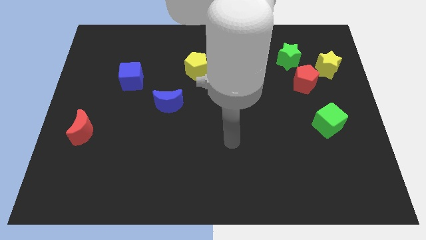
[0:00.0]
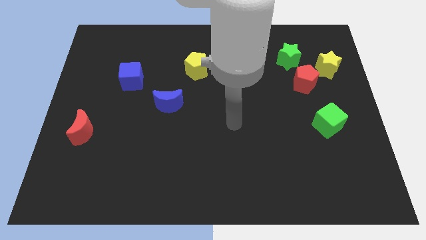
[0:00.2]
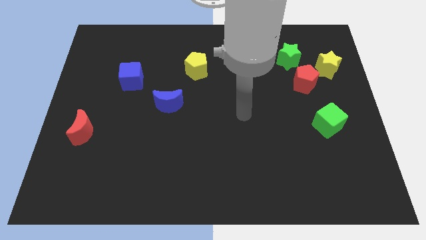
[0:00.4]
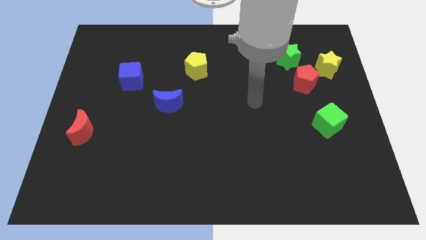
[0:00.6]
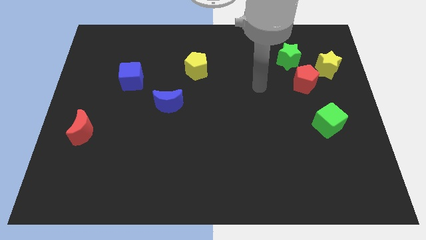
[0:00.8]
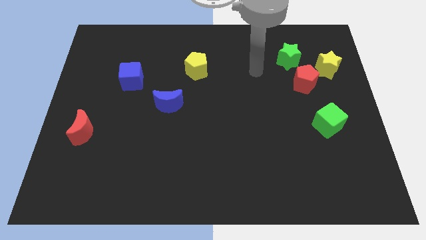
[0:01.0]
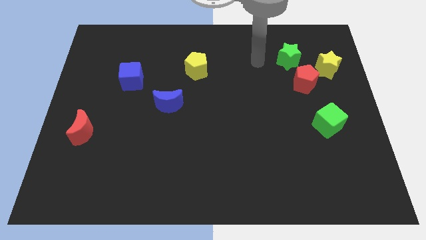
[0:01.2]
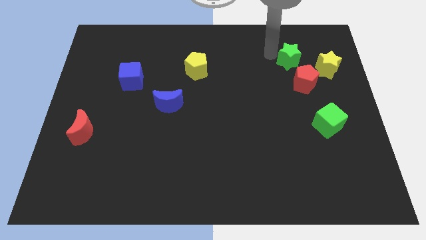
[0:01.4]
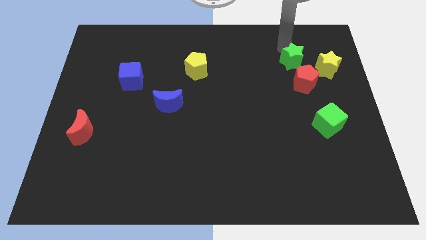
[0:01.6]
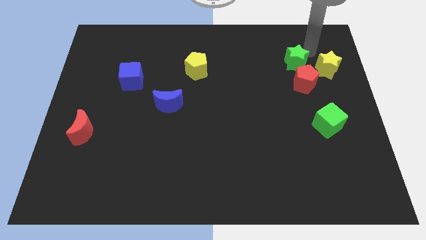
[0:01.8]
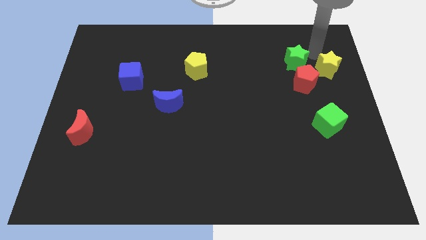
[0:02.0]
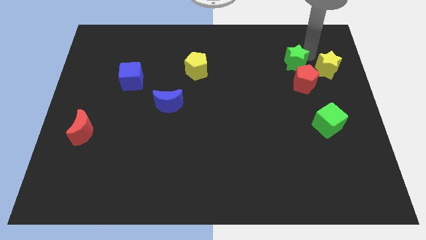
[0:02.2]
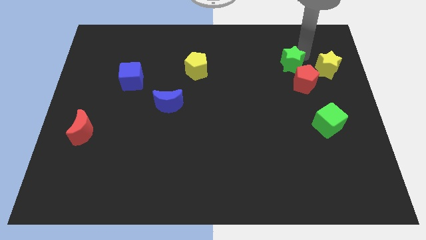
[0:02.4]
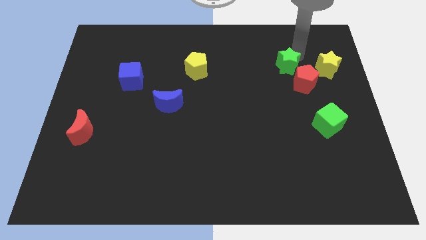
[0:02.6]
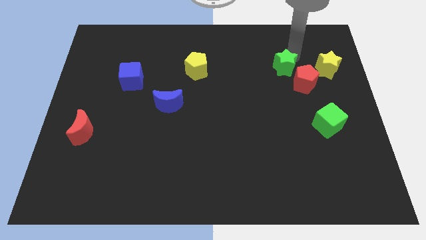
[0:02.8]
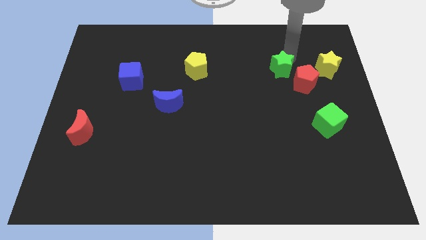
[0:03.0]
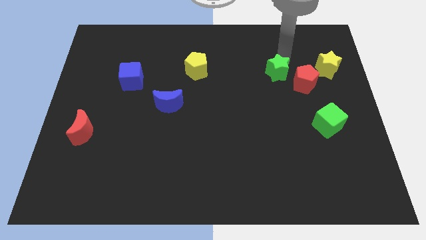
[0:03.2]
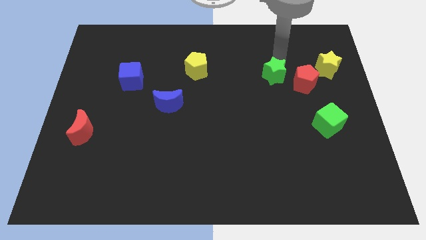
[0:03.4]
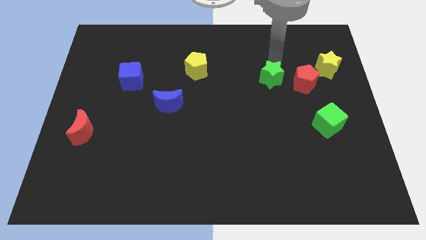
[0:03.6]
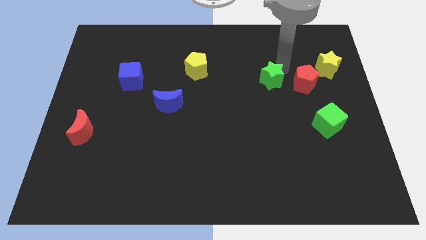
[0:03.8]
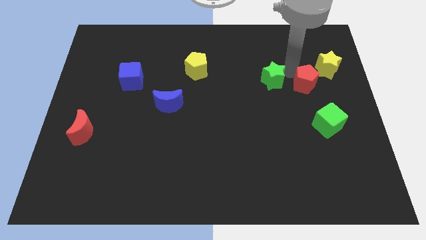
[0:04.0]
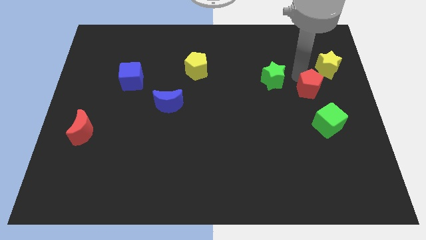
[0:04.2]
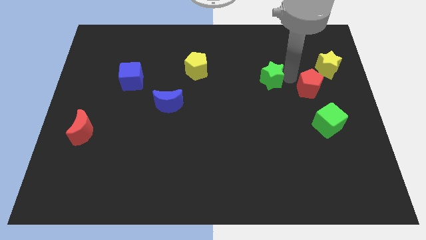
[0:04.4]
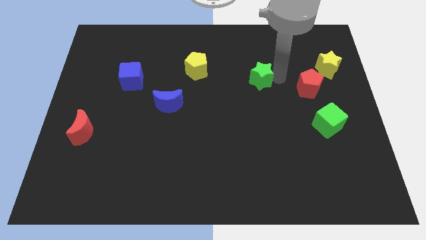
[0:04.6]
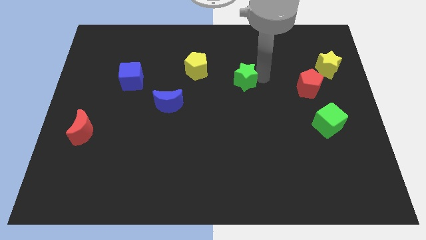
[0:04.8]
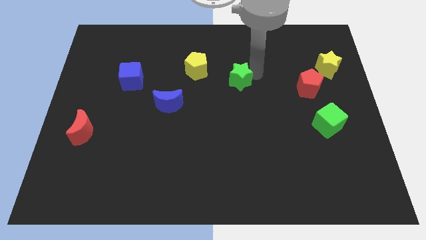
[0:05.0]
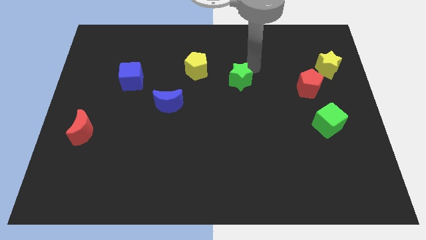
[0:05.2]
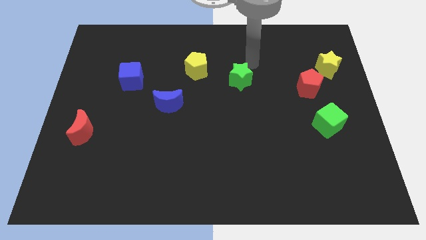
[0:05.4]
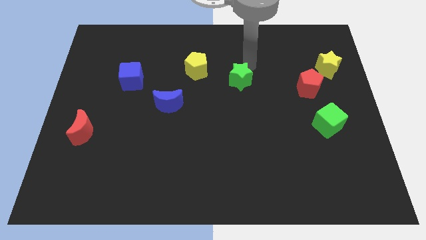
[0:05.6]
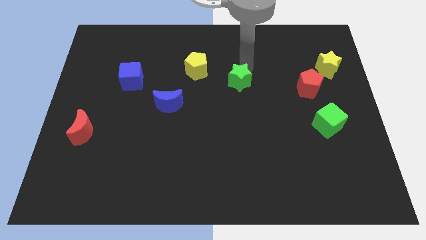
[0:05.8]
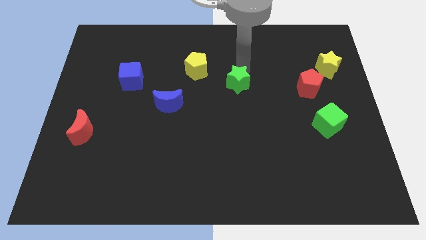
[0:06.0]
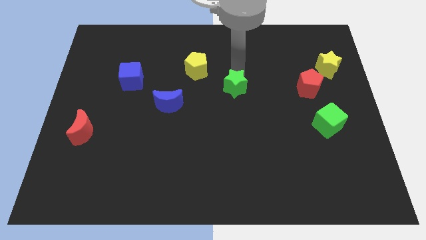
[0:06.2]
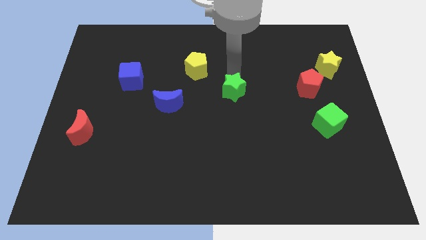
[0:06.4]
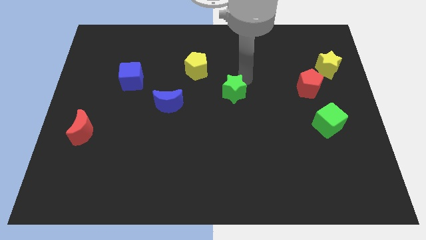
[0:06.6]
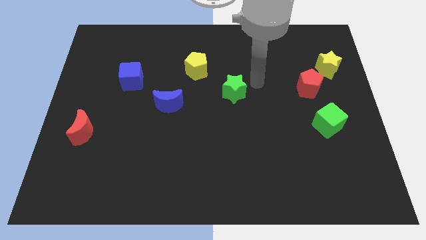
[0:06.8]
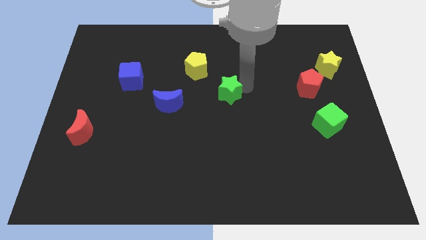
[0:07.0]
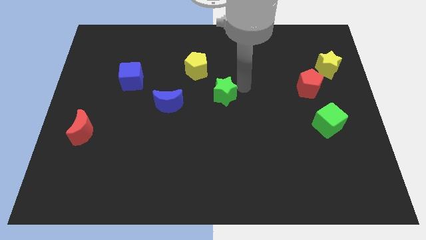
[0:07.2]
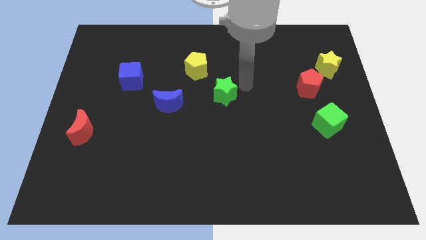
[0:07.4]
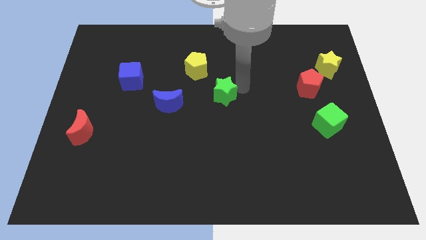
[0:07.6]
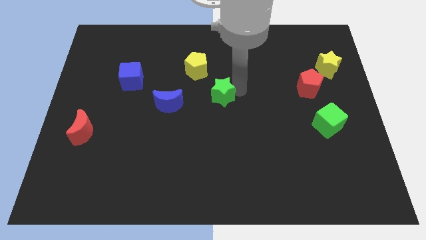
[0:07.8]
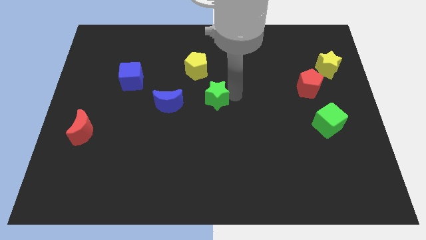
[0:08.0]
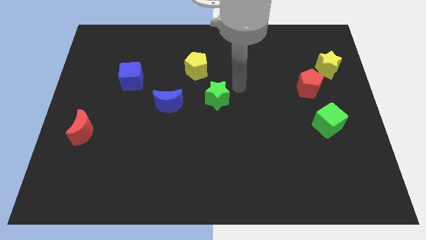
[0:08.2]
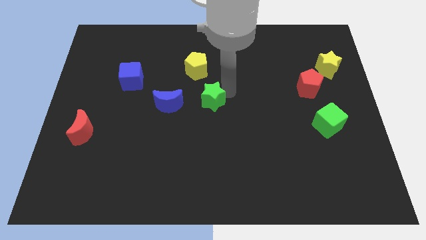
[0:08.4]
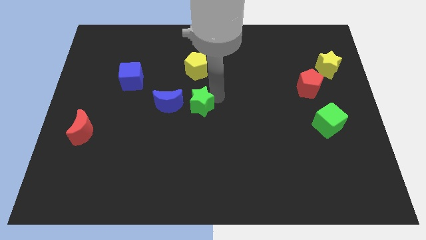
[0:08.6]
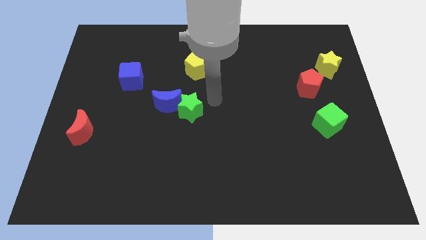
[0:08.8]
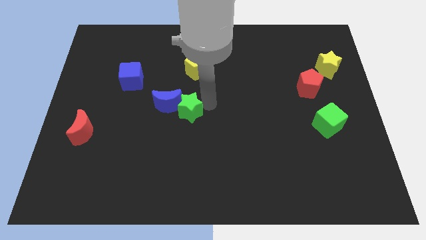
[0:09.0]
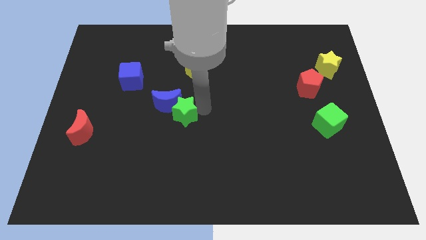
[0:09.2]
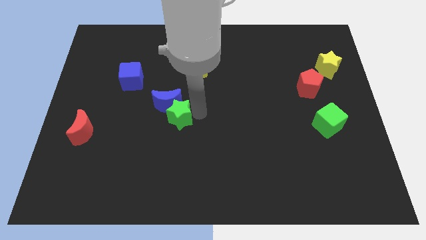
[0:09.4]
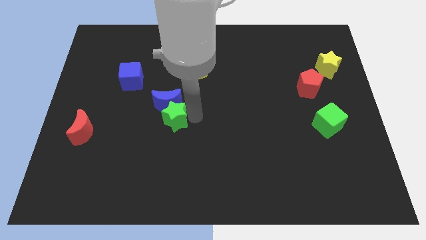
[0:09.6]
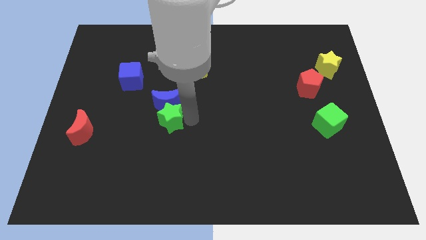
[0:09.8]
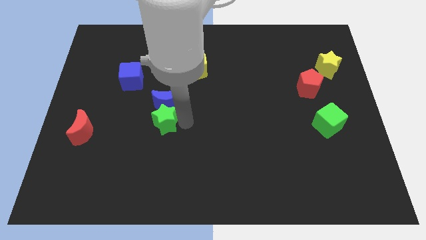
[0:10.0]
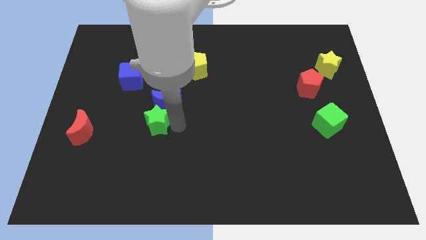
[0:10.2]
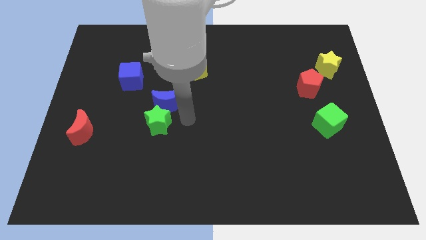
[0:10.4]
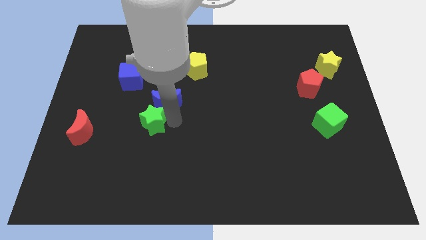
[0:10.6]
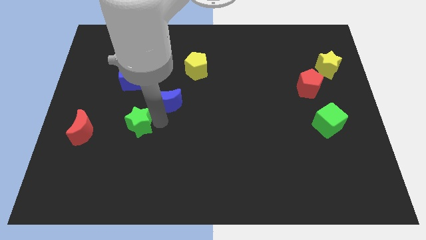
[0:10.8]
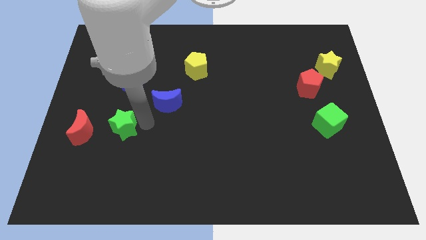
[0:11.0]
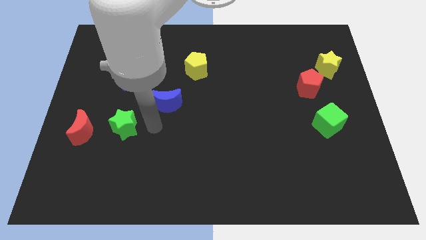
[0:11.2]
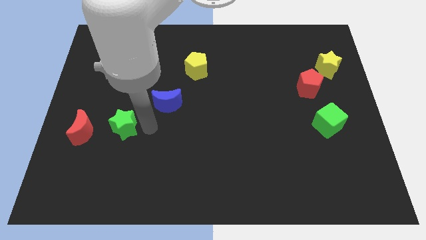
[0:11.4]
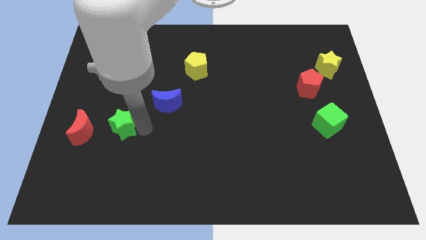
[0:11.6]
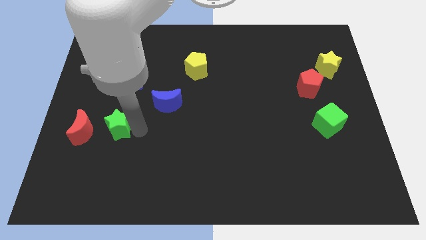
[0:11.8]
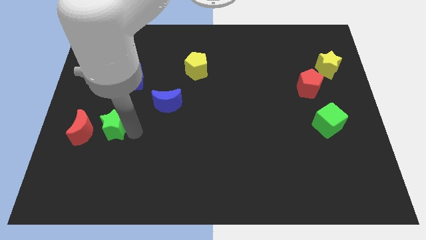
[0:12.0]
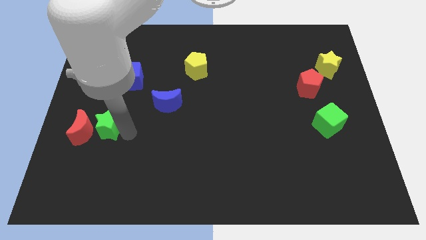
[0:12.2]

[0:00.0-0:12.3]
slide the green star next to the red moon

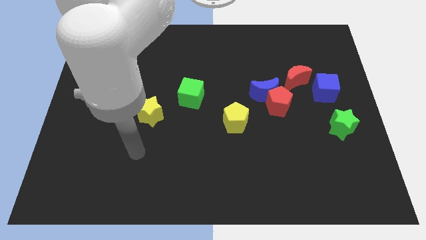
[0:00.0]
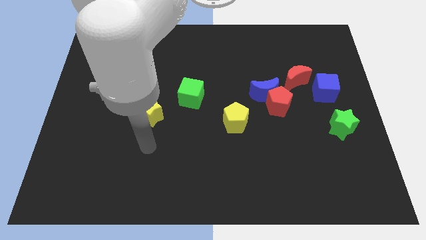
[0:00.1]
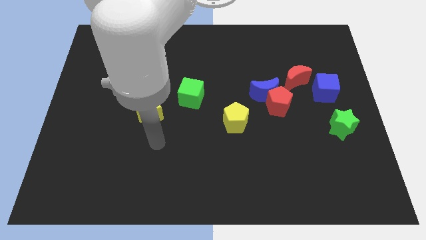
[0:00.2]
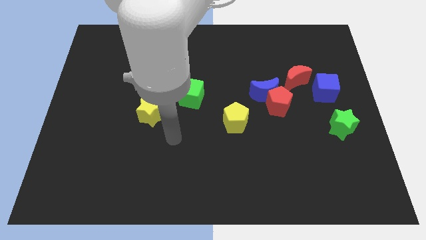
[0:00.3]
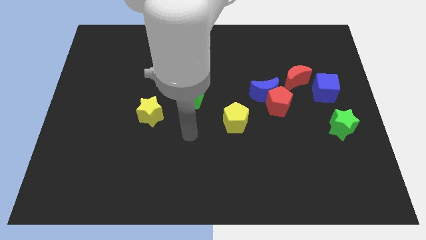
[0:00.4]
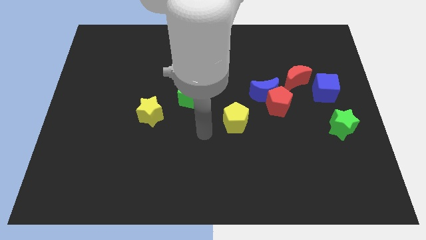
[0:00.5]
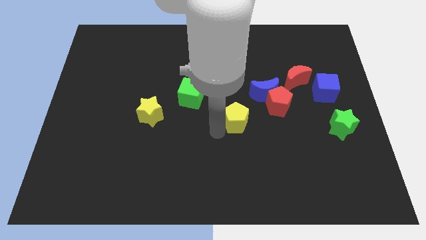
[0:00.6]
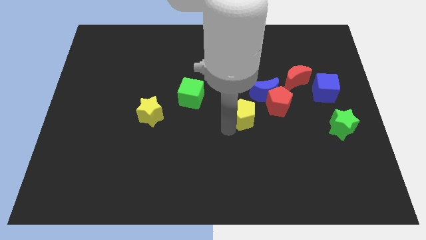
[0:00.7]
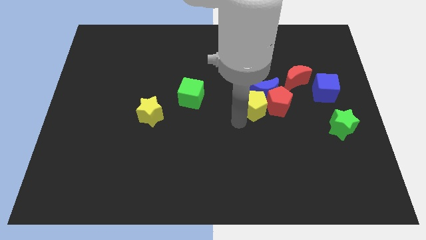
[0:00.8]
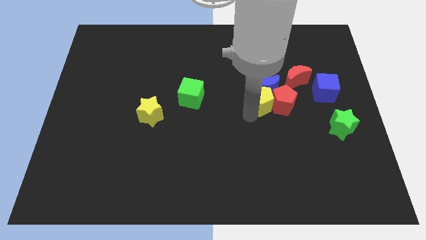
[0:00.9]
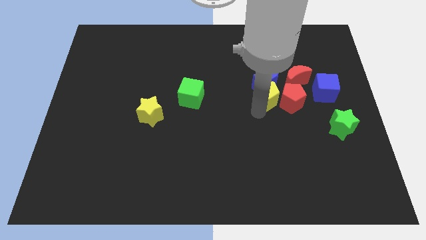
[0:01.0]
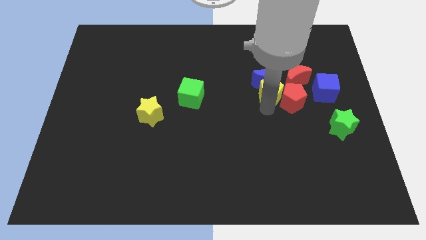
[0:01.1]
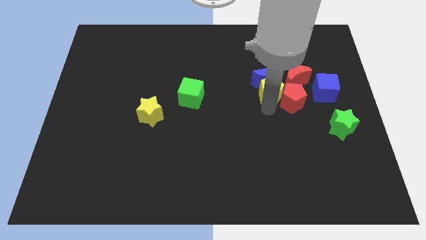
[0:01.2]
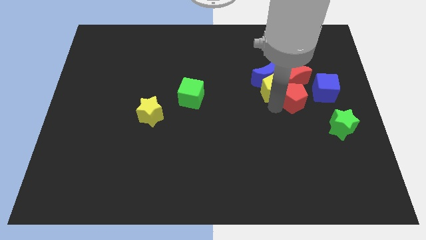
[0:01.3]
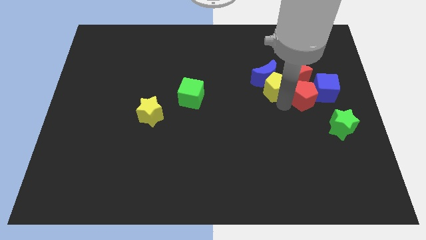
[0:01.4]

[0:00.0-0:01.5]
move the red pentagon to the blue cube
